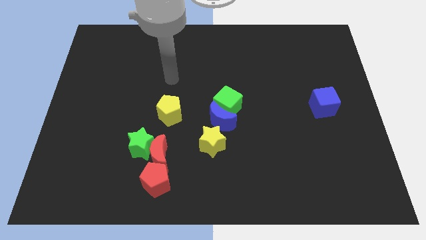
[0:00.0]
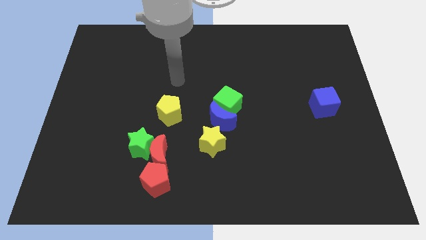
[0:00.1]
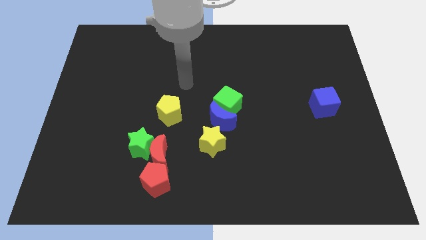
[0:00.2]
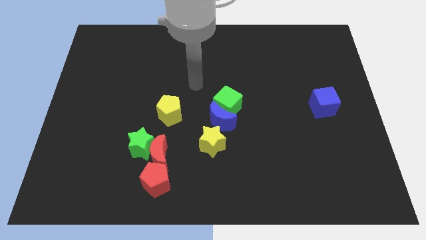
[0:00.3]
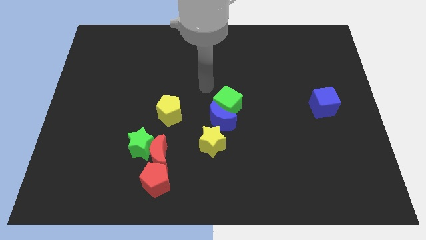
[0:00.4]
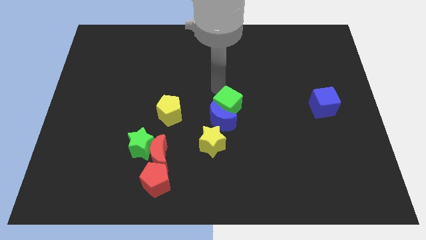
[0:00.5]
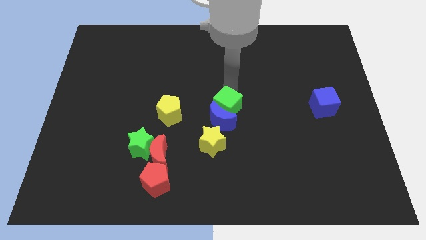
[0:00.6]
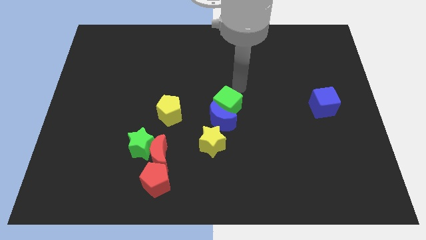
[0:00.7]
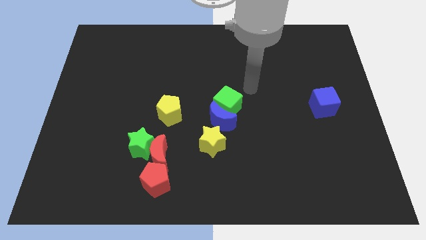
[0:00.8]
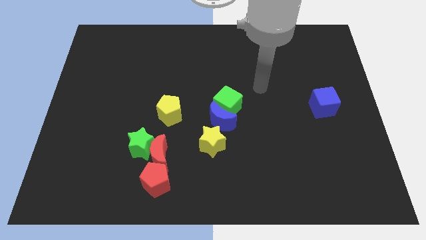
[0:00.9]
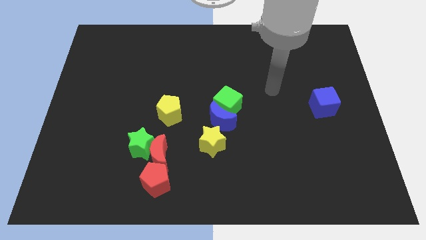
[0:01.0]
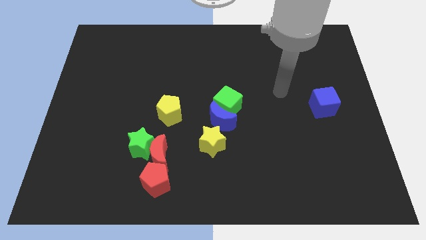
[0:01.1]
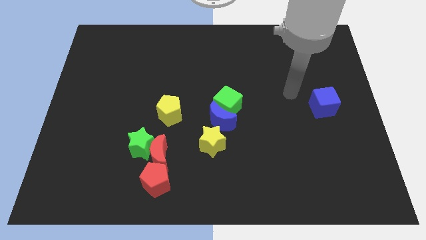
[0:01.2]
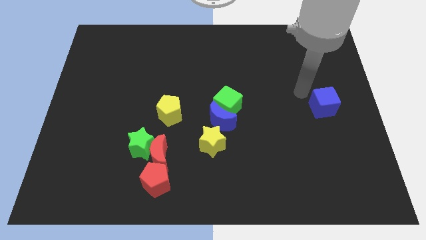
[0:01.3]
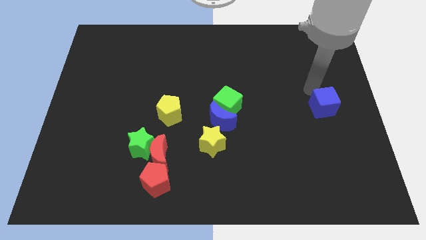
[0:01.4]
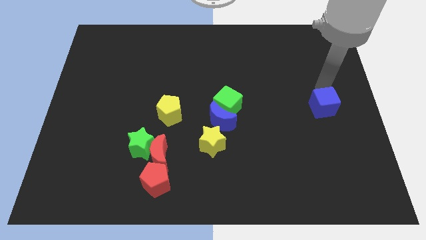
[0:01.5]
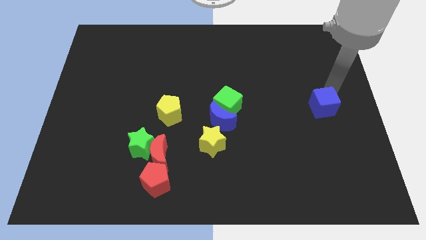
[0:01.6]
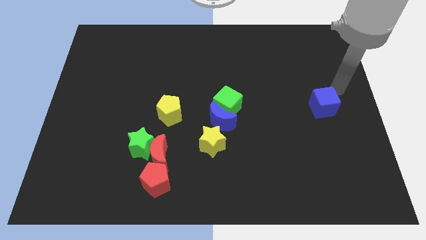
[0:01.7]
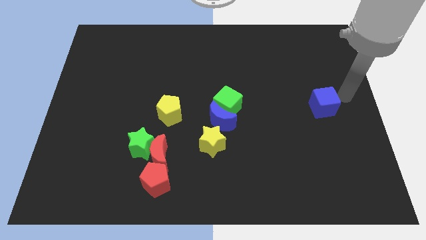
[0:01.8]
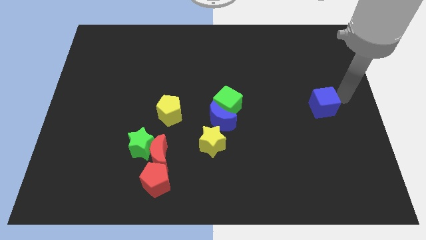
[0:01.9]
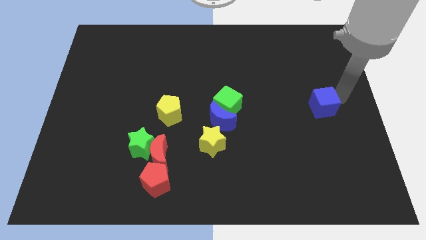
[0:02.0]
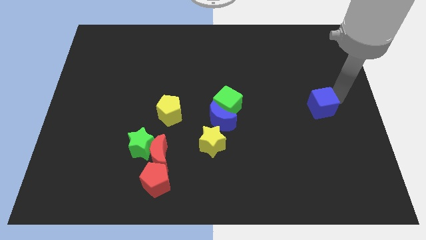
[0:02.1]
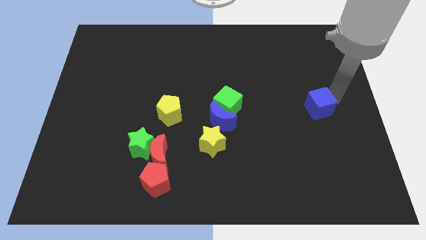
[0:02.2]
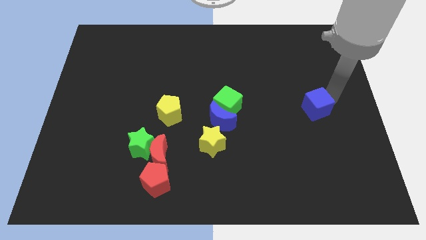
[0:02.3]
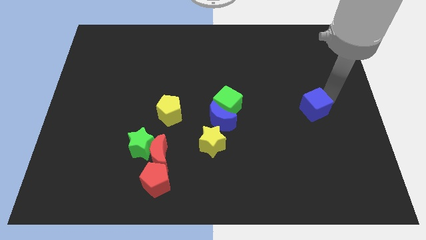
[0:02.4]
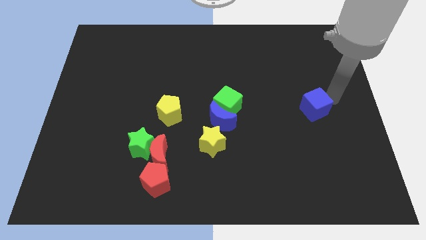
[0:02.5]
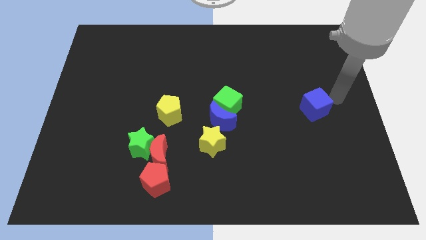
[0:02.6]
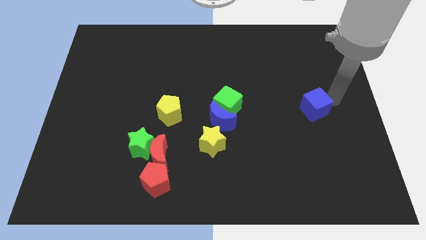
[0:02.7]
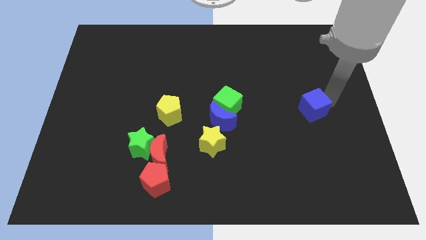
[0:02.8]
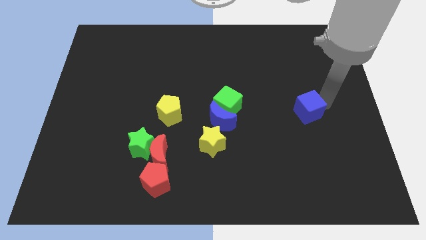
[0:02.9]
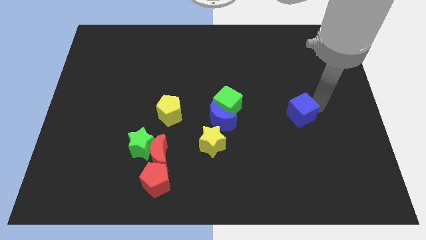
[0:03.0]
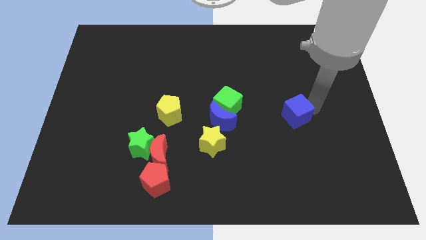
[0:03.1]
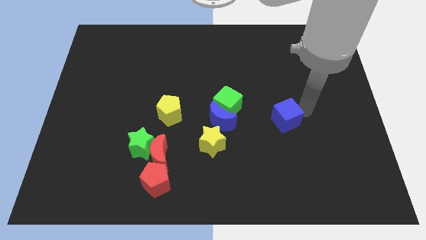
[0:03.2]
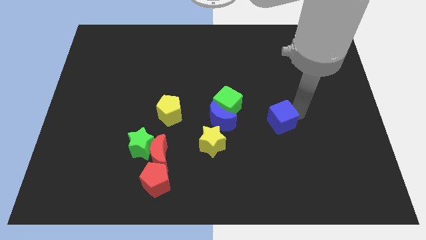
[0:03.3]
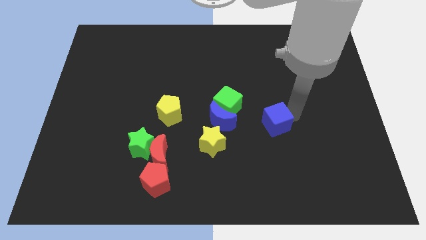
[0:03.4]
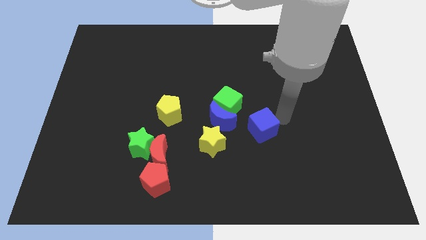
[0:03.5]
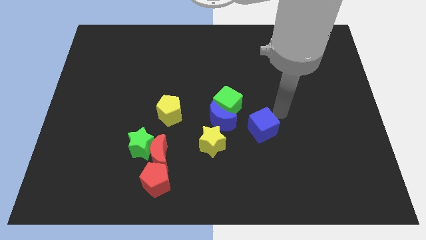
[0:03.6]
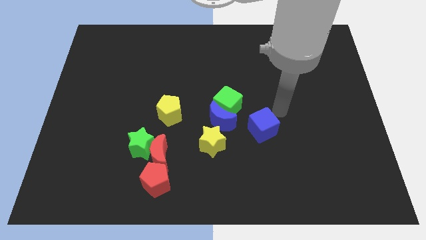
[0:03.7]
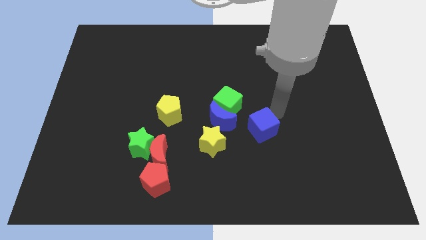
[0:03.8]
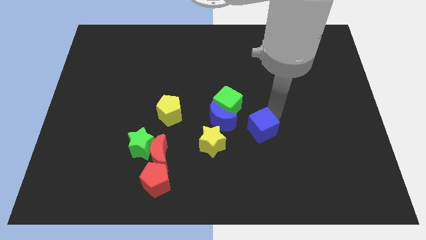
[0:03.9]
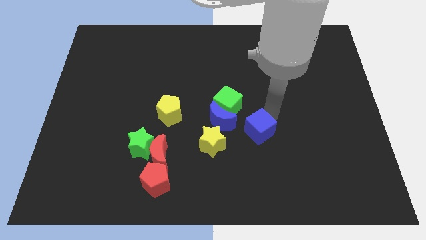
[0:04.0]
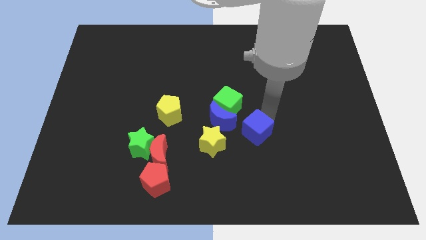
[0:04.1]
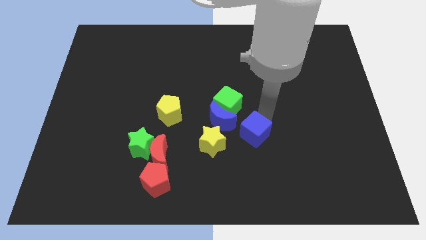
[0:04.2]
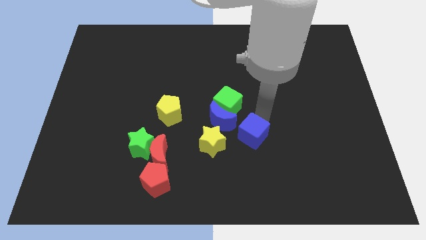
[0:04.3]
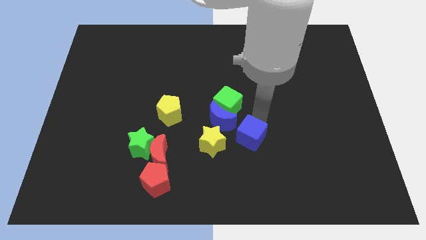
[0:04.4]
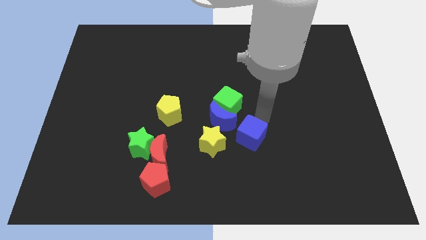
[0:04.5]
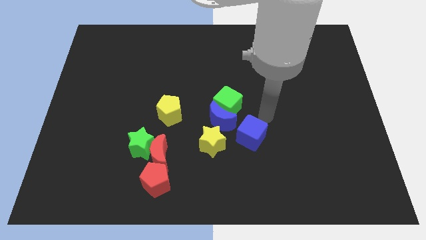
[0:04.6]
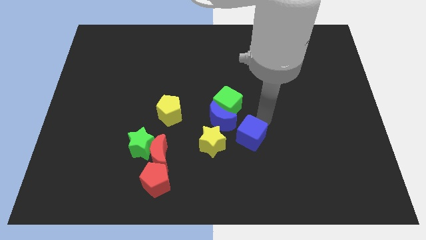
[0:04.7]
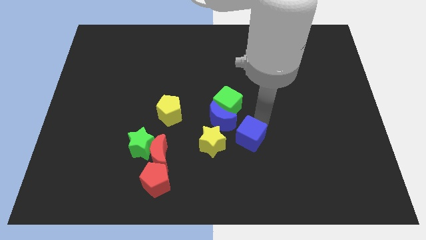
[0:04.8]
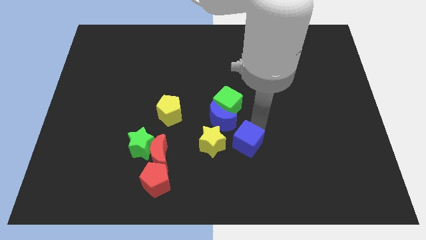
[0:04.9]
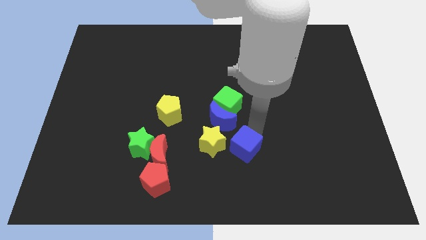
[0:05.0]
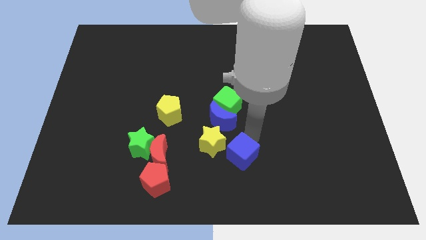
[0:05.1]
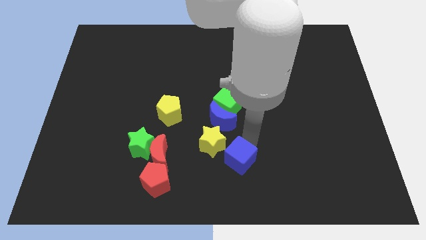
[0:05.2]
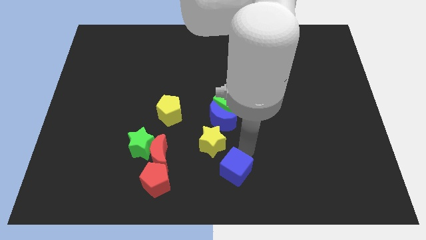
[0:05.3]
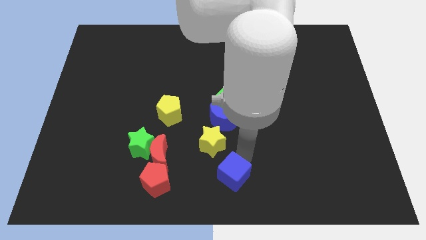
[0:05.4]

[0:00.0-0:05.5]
put the blue cube to the right side of the red pentagon

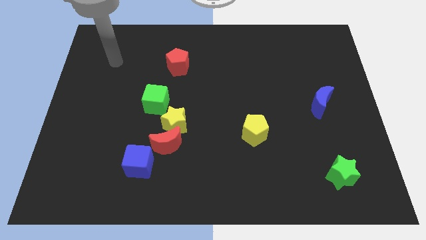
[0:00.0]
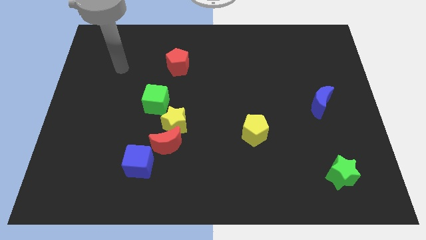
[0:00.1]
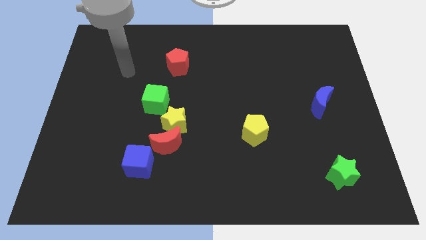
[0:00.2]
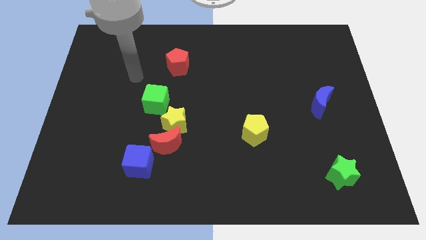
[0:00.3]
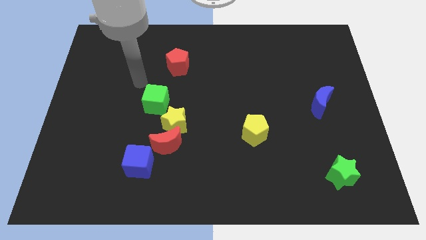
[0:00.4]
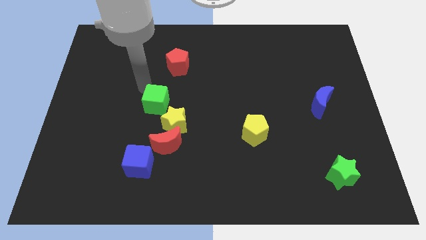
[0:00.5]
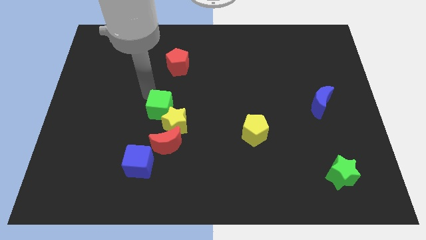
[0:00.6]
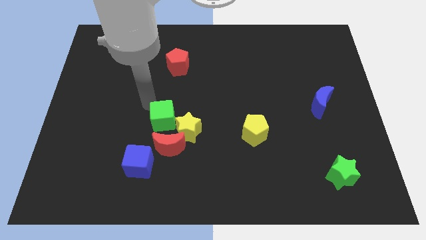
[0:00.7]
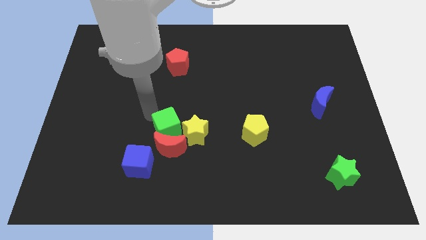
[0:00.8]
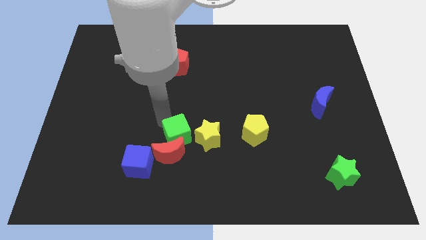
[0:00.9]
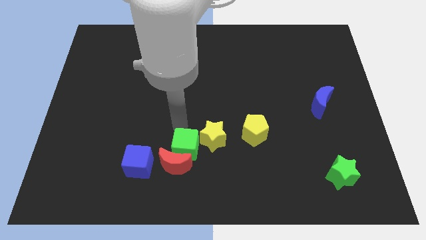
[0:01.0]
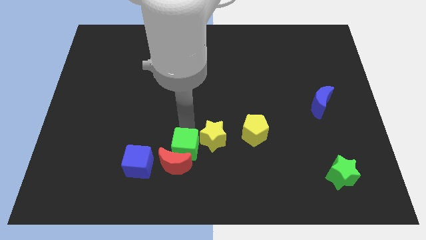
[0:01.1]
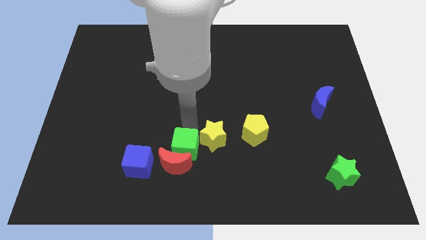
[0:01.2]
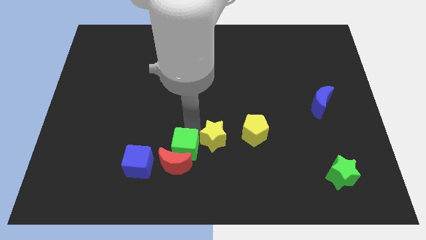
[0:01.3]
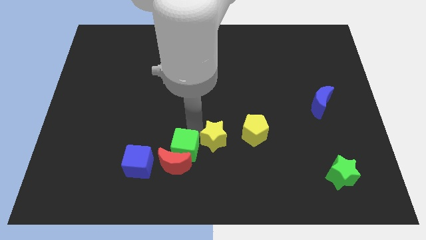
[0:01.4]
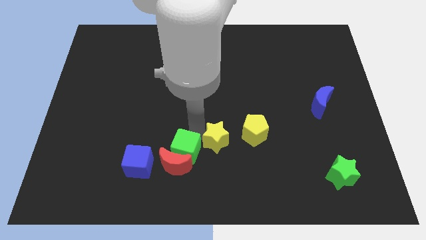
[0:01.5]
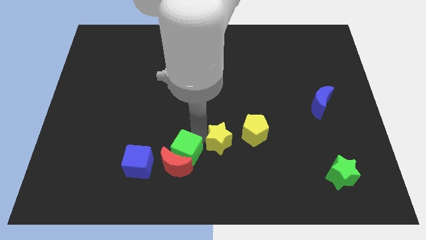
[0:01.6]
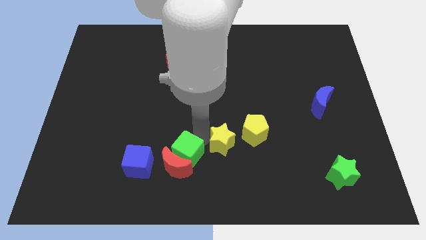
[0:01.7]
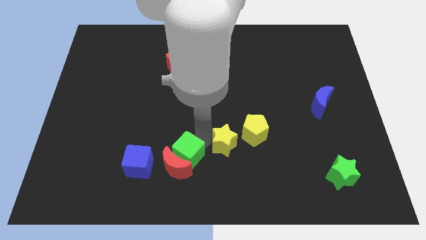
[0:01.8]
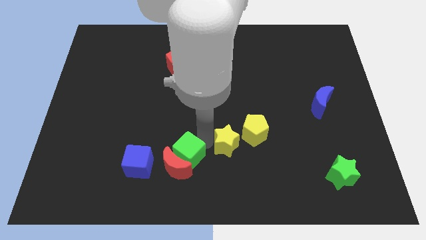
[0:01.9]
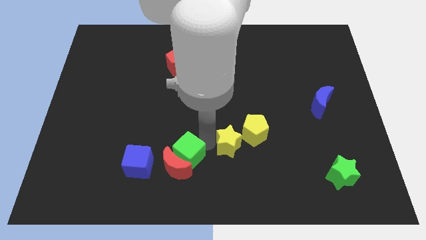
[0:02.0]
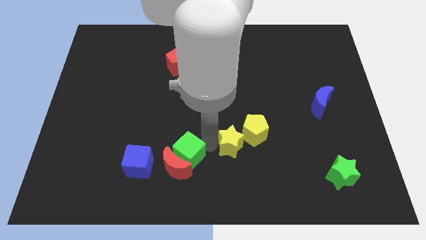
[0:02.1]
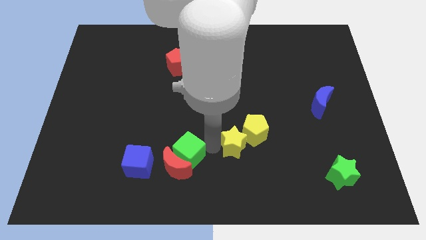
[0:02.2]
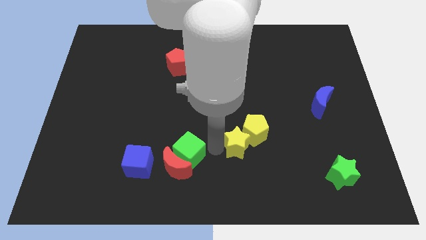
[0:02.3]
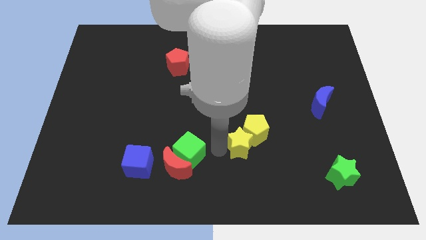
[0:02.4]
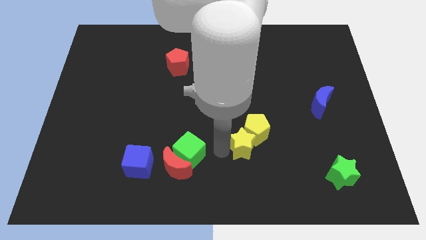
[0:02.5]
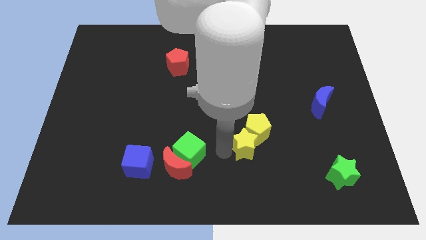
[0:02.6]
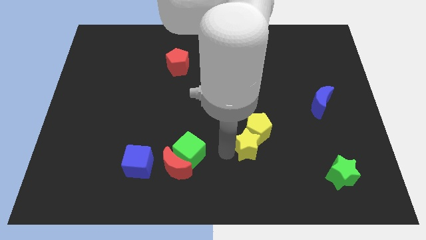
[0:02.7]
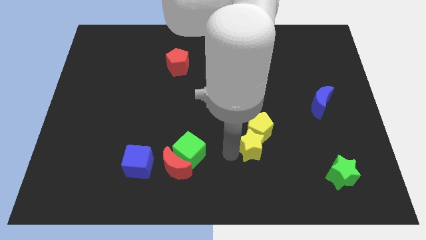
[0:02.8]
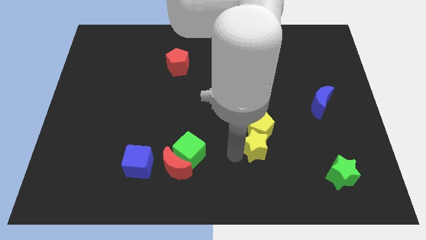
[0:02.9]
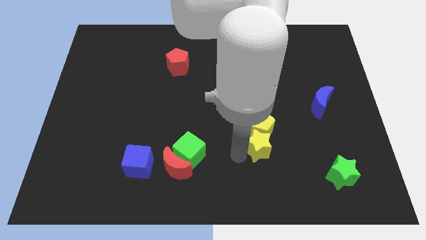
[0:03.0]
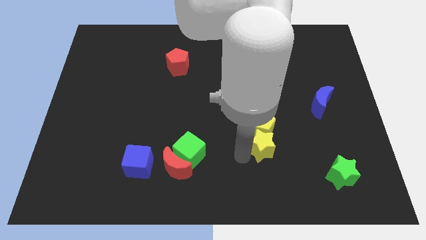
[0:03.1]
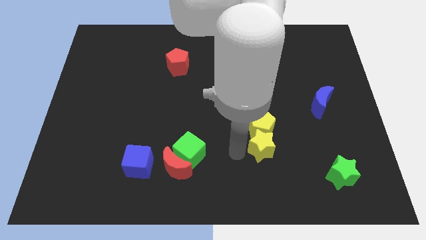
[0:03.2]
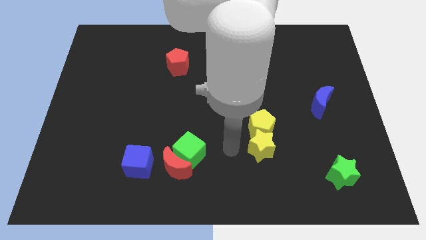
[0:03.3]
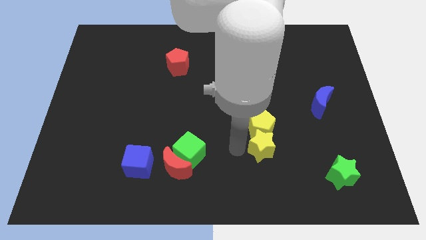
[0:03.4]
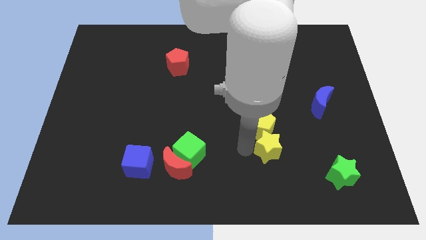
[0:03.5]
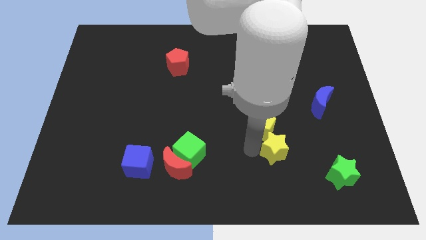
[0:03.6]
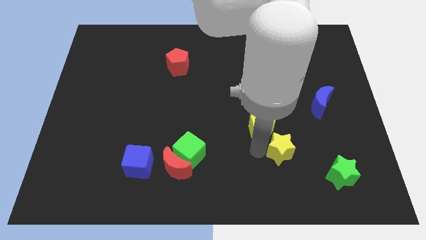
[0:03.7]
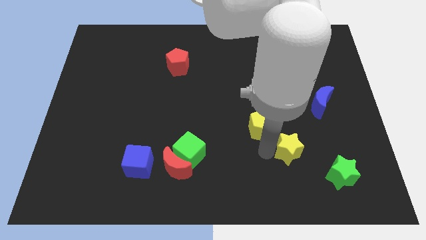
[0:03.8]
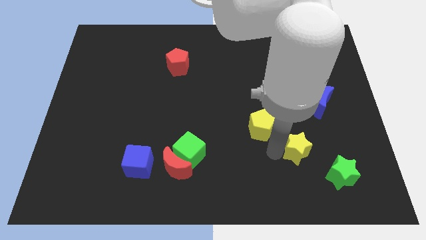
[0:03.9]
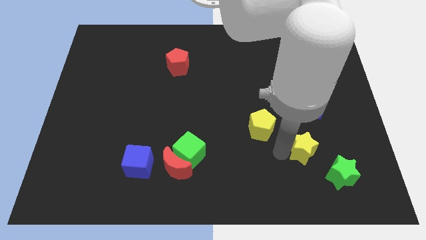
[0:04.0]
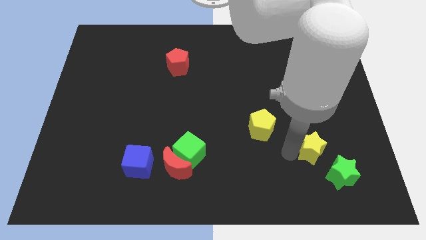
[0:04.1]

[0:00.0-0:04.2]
slide the yellow star to the bottom side of the blue moon
